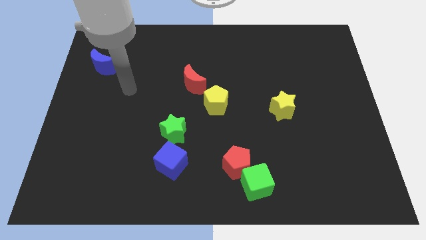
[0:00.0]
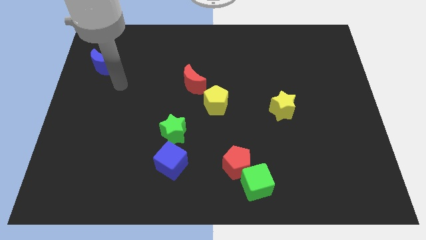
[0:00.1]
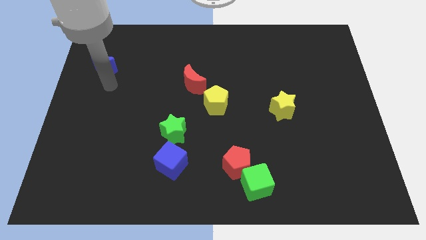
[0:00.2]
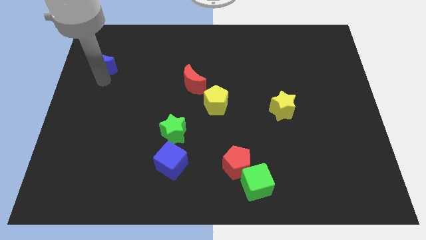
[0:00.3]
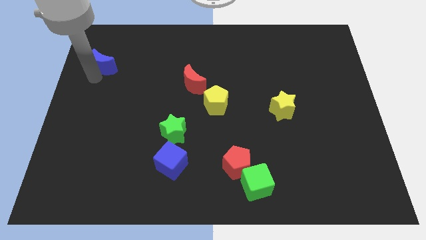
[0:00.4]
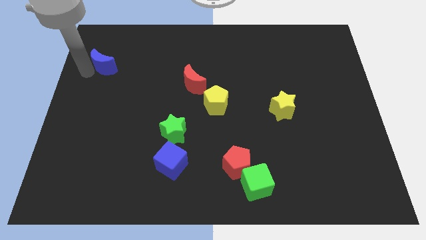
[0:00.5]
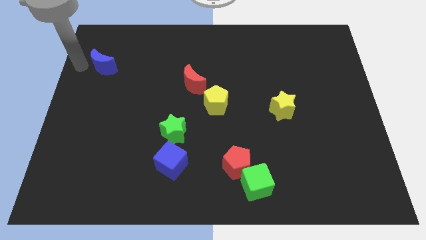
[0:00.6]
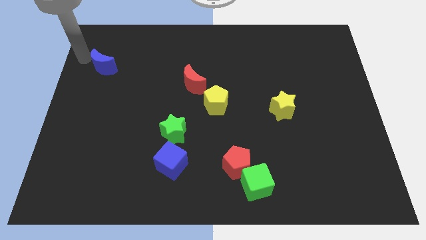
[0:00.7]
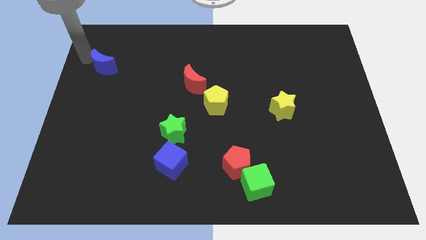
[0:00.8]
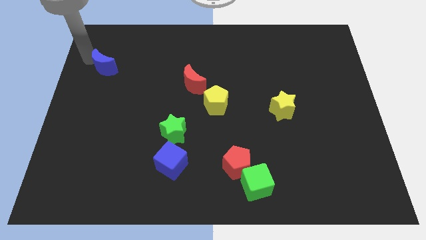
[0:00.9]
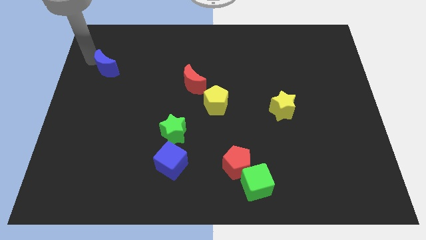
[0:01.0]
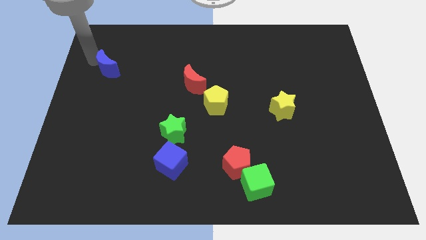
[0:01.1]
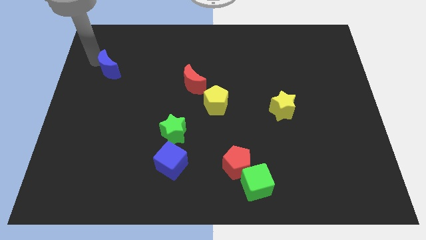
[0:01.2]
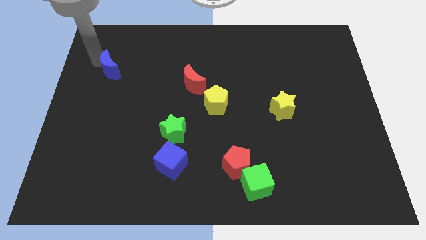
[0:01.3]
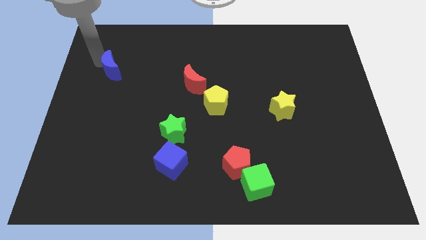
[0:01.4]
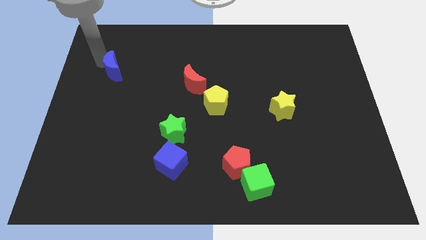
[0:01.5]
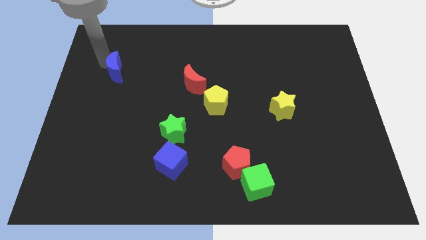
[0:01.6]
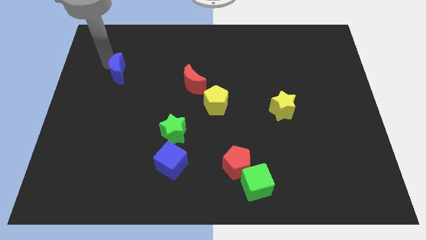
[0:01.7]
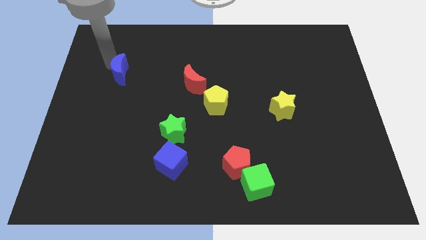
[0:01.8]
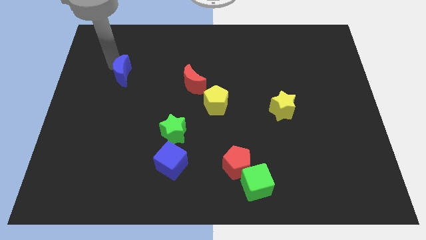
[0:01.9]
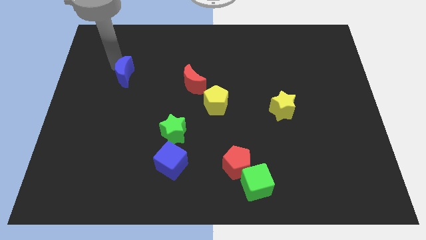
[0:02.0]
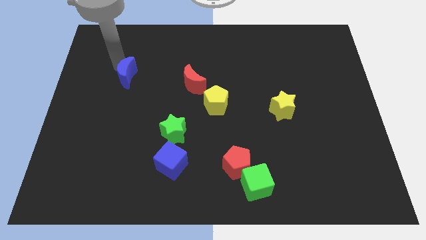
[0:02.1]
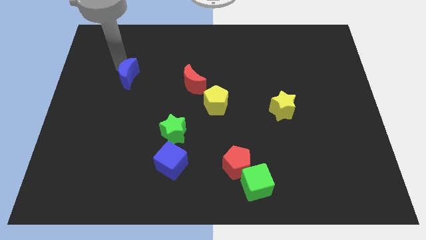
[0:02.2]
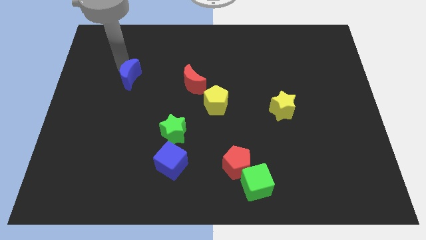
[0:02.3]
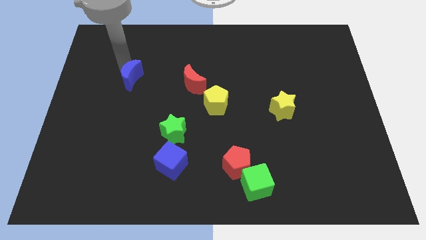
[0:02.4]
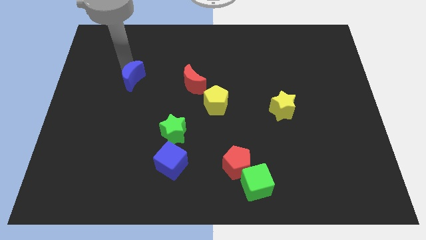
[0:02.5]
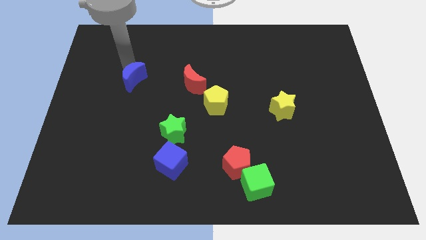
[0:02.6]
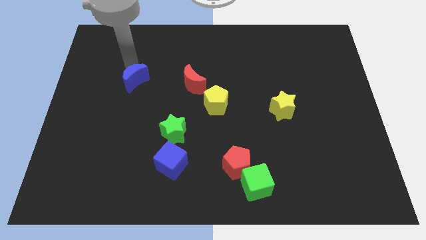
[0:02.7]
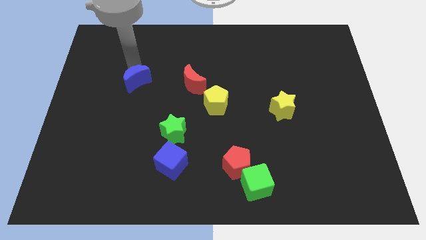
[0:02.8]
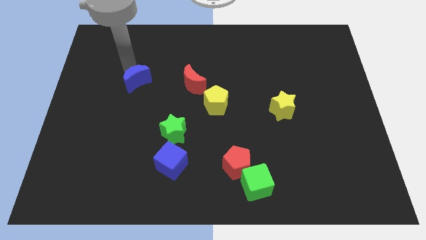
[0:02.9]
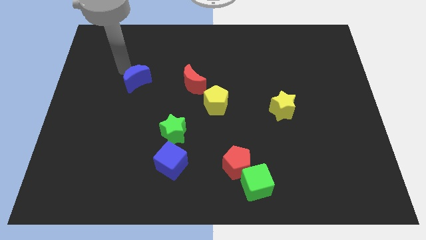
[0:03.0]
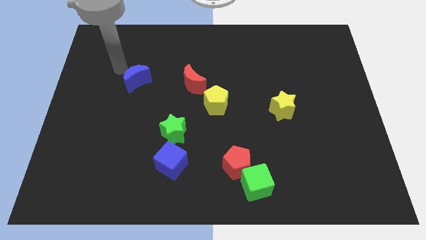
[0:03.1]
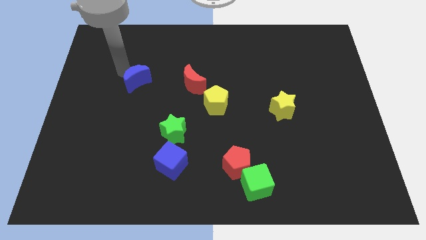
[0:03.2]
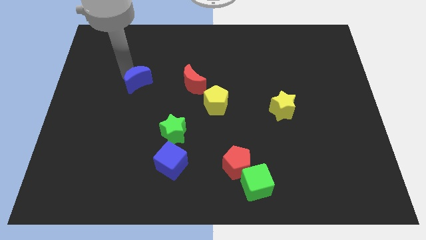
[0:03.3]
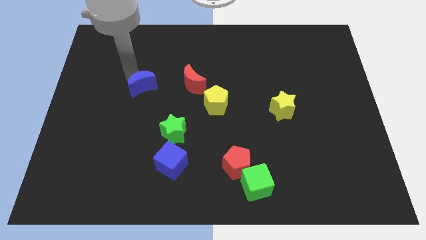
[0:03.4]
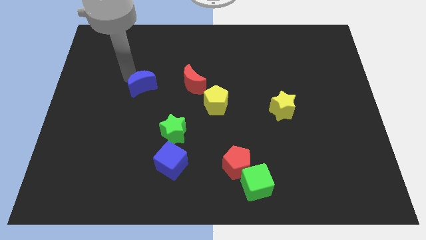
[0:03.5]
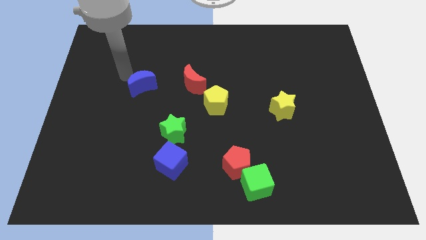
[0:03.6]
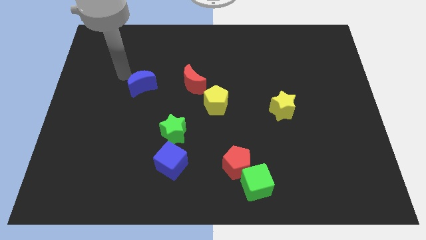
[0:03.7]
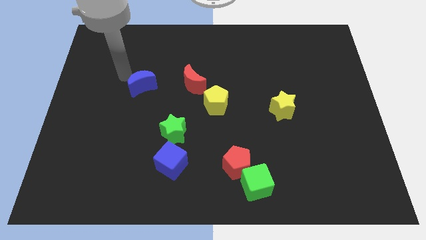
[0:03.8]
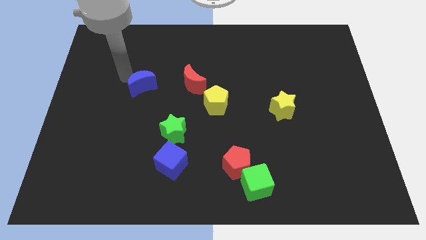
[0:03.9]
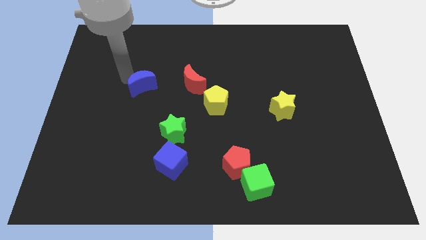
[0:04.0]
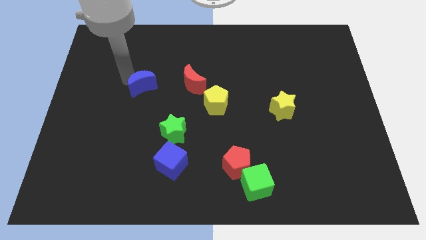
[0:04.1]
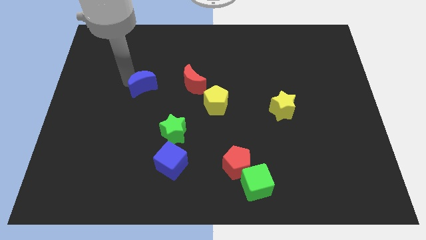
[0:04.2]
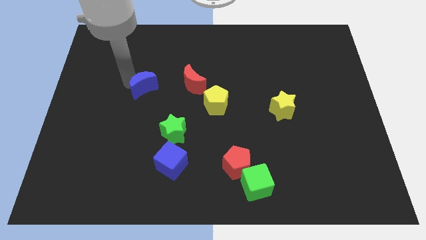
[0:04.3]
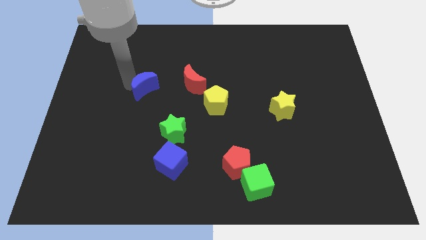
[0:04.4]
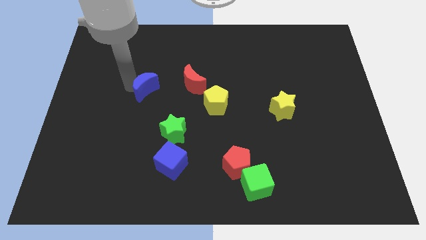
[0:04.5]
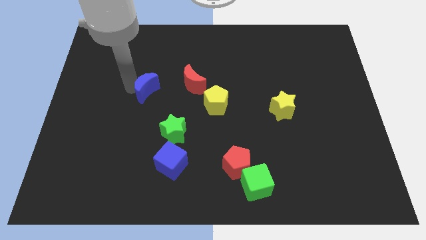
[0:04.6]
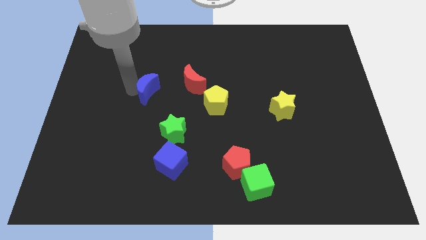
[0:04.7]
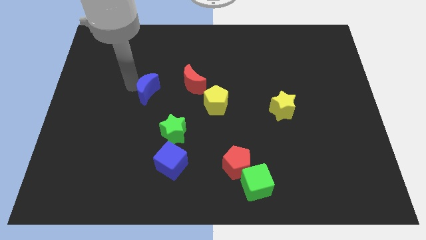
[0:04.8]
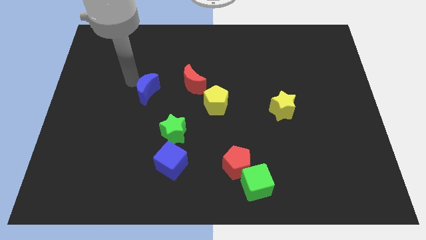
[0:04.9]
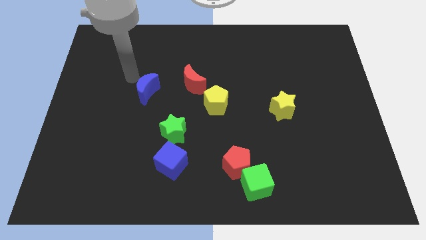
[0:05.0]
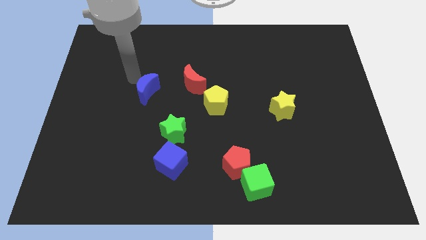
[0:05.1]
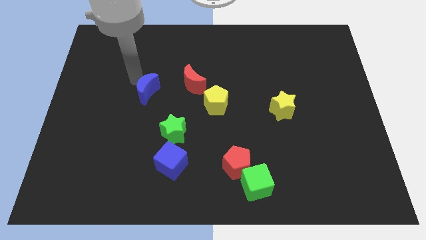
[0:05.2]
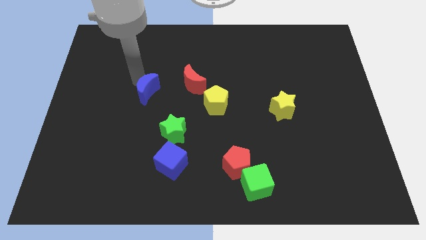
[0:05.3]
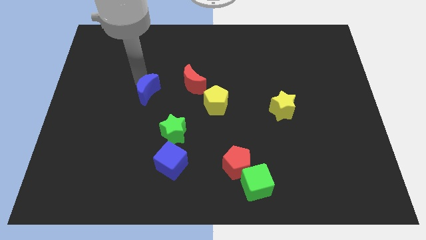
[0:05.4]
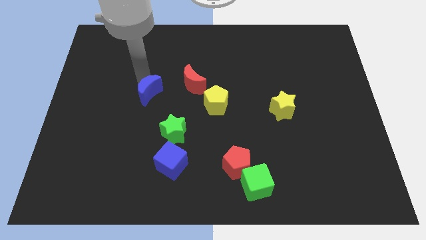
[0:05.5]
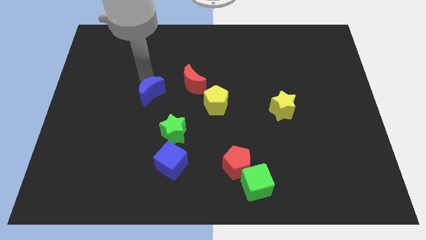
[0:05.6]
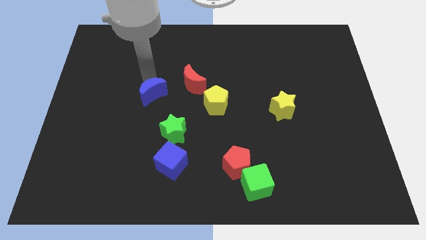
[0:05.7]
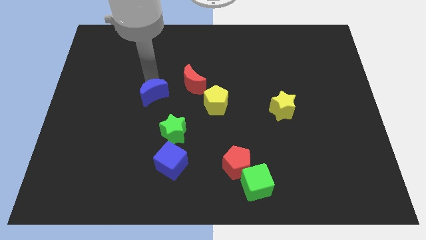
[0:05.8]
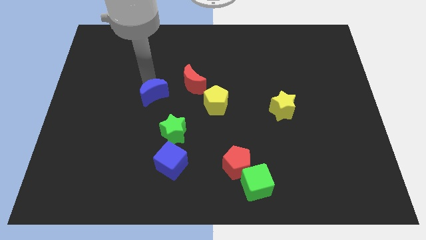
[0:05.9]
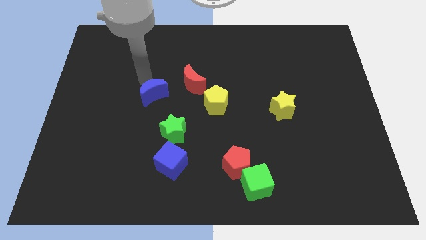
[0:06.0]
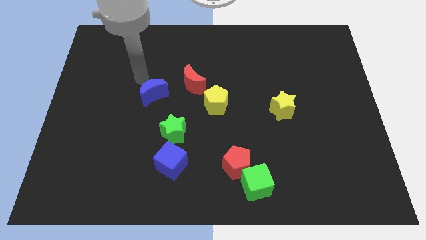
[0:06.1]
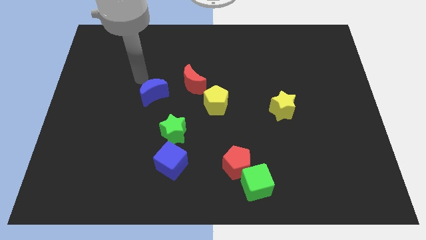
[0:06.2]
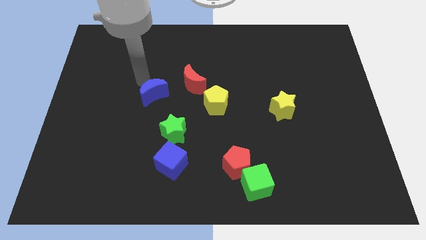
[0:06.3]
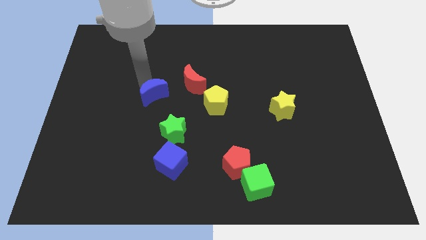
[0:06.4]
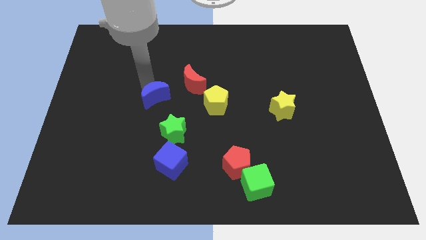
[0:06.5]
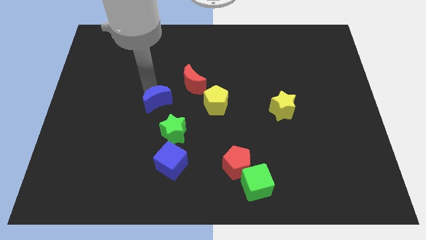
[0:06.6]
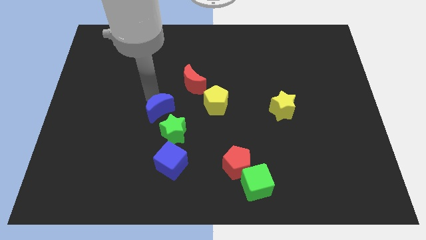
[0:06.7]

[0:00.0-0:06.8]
slide the blue moon downwards and then right

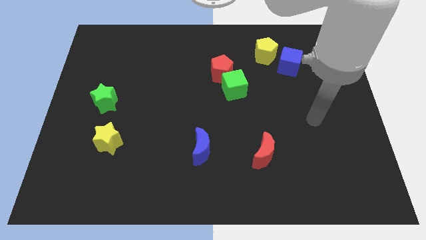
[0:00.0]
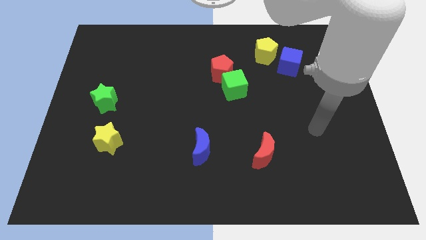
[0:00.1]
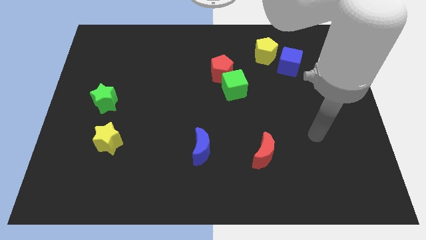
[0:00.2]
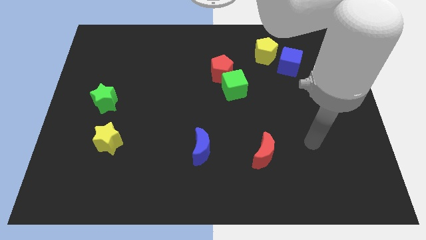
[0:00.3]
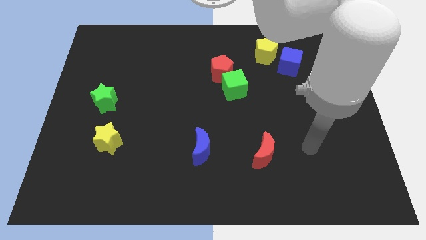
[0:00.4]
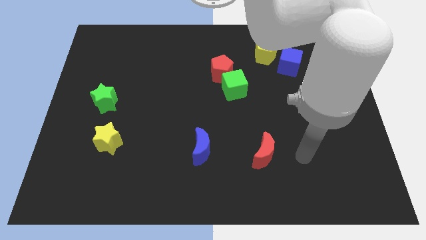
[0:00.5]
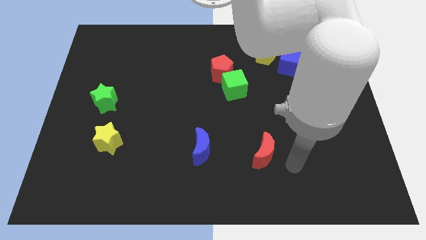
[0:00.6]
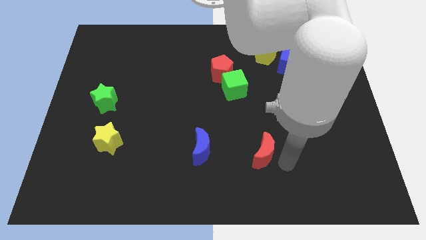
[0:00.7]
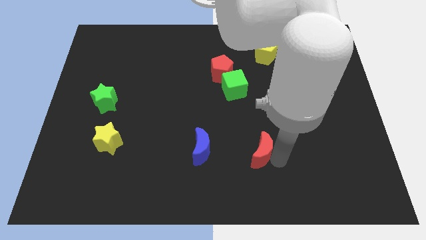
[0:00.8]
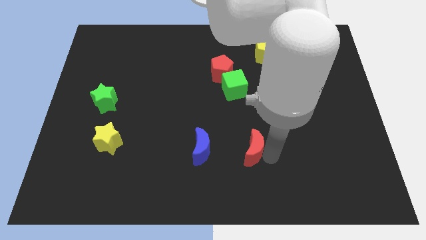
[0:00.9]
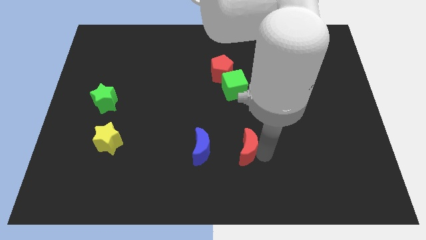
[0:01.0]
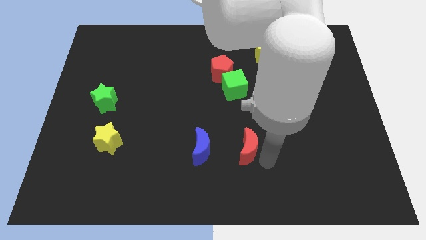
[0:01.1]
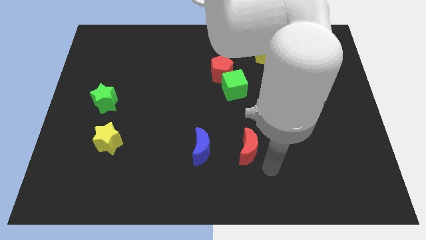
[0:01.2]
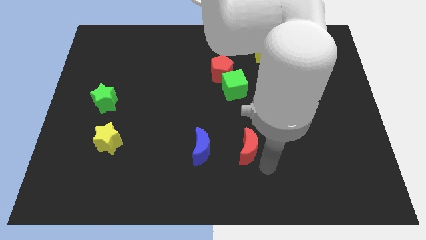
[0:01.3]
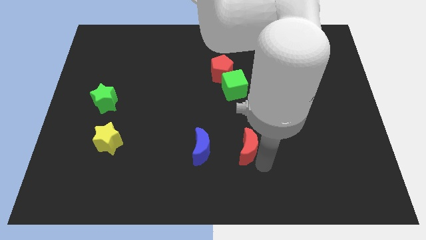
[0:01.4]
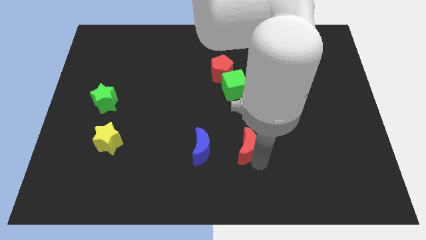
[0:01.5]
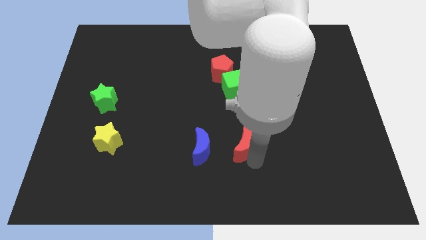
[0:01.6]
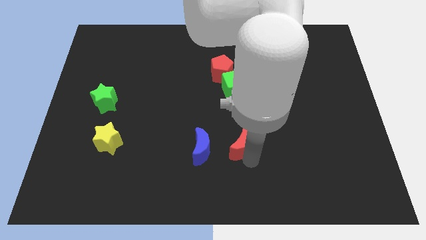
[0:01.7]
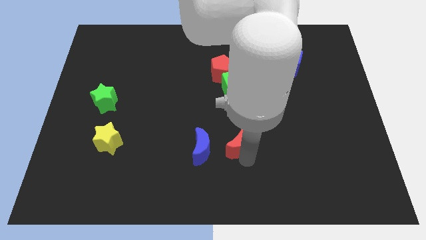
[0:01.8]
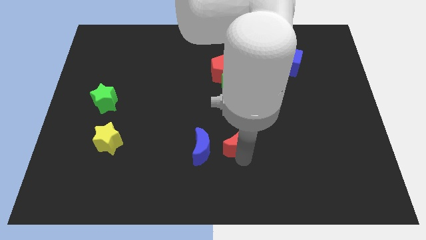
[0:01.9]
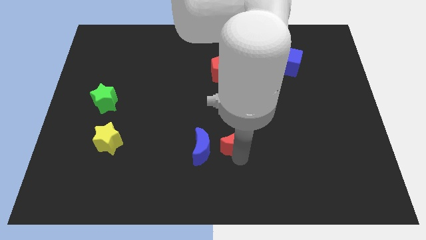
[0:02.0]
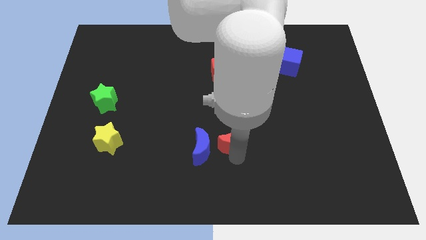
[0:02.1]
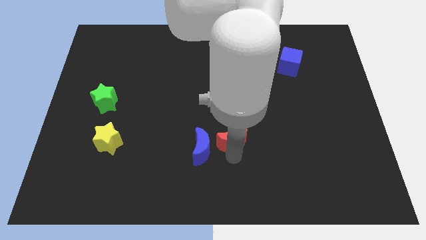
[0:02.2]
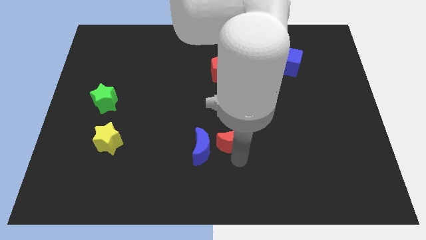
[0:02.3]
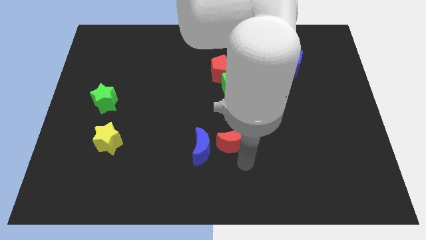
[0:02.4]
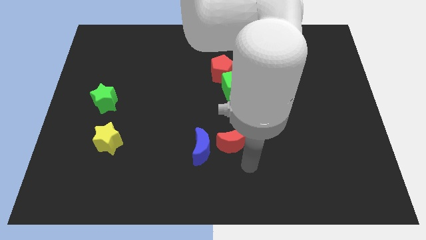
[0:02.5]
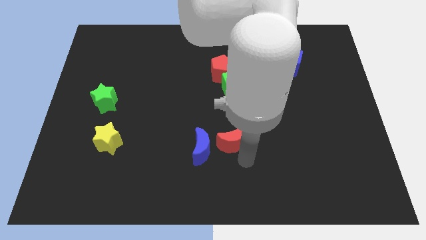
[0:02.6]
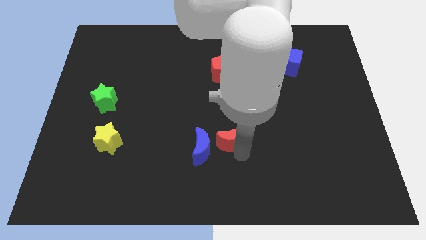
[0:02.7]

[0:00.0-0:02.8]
push the red moon slightly up and left diagonally
